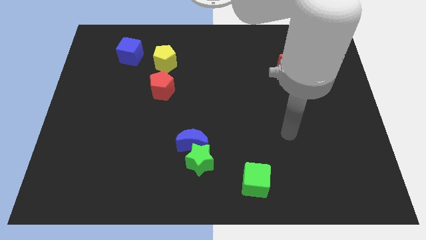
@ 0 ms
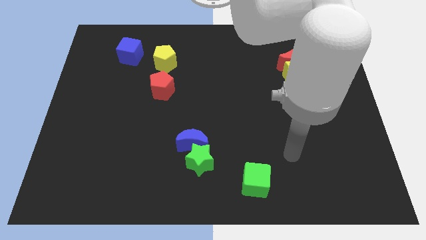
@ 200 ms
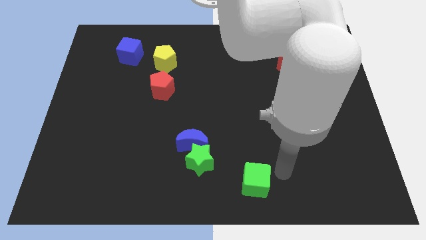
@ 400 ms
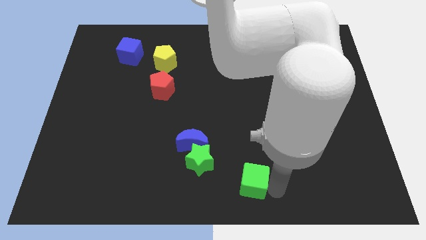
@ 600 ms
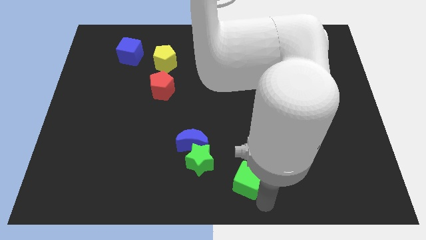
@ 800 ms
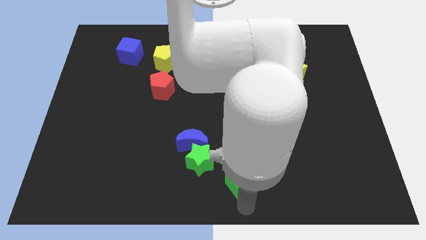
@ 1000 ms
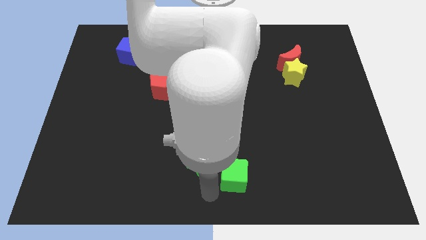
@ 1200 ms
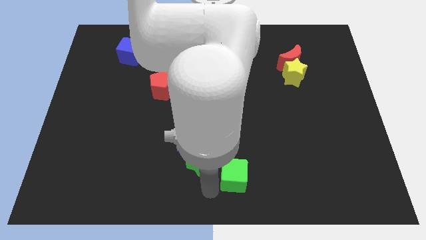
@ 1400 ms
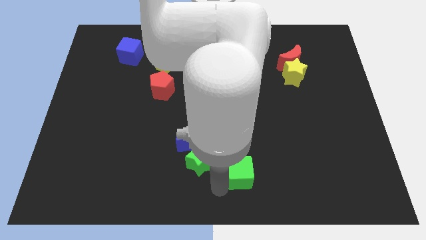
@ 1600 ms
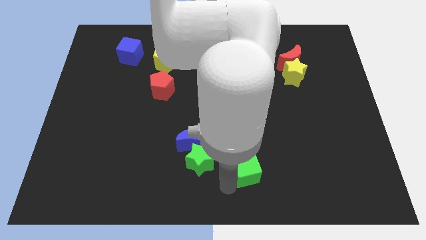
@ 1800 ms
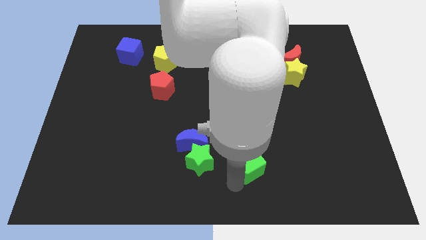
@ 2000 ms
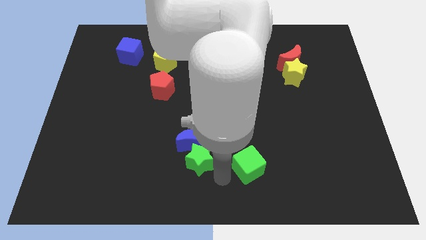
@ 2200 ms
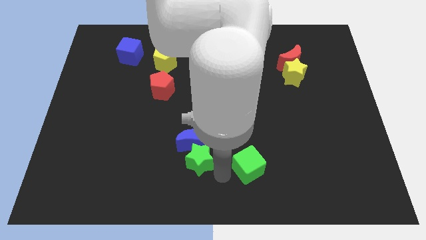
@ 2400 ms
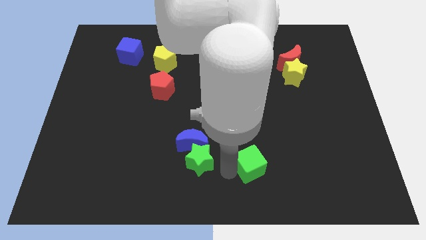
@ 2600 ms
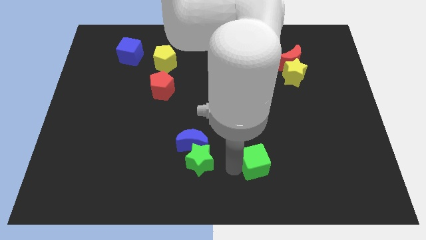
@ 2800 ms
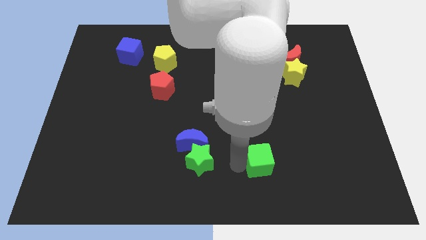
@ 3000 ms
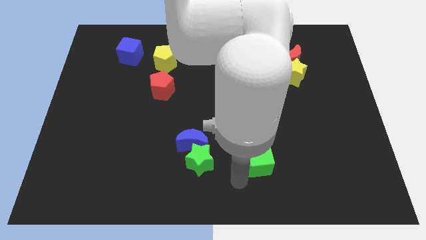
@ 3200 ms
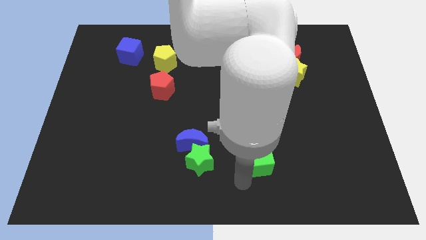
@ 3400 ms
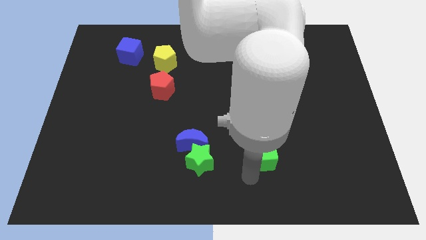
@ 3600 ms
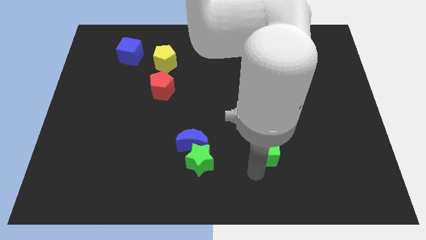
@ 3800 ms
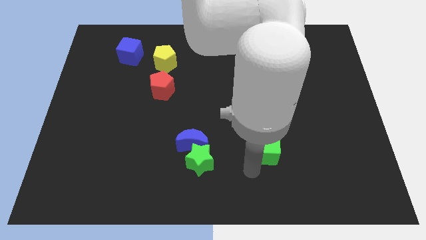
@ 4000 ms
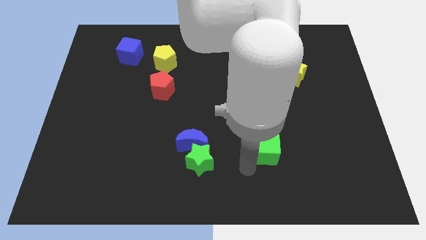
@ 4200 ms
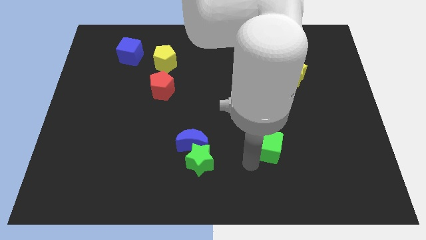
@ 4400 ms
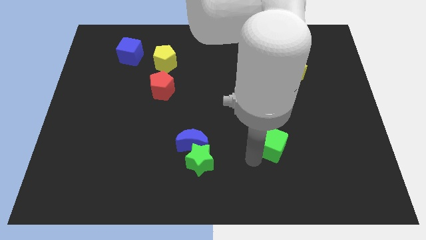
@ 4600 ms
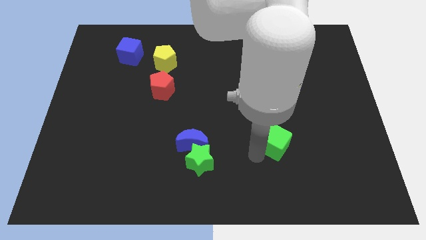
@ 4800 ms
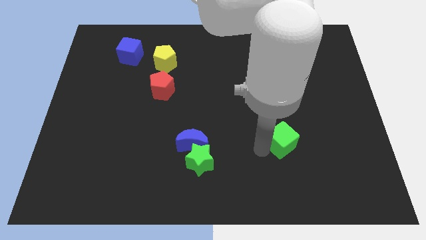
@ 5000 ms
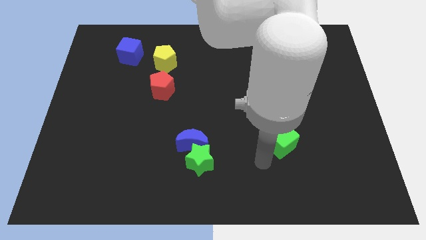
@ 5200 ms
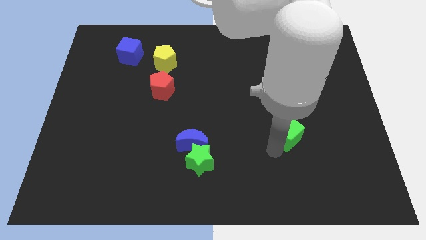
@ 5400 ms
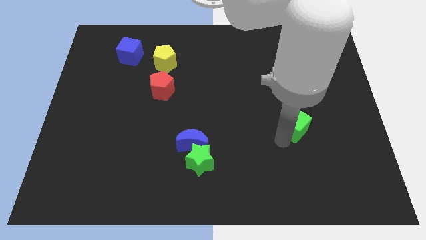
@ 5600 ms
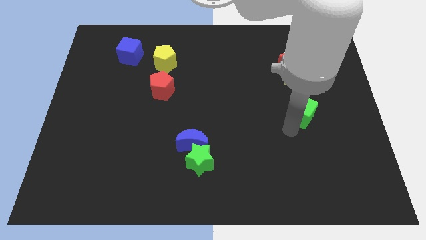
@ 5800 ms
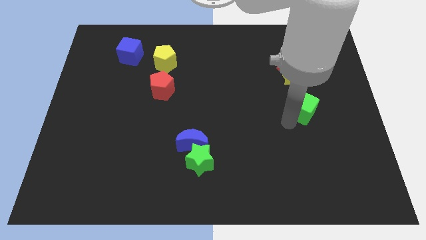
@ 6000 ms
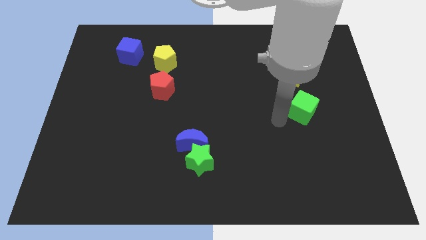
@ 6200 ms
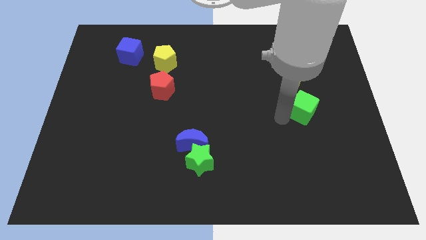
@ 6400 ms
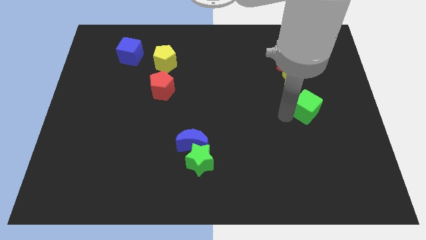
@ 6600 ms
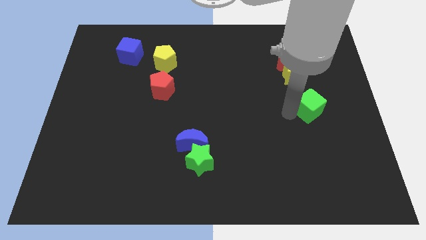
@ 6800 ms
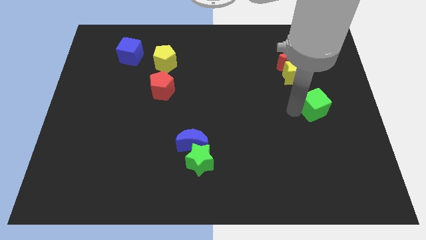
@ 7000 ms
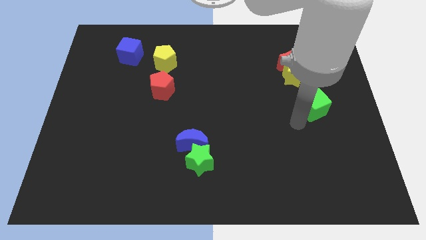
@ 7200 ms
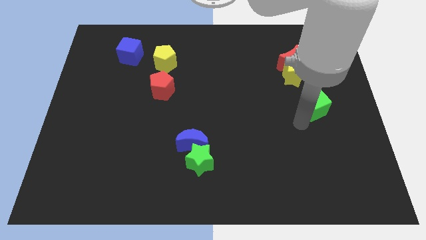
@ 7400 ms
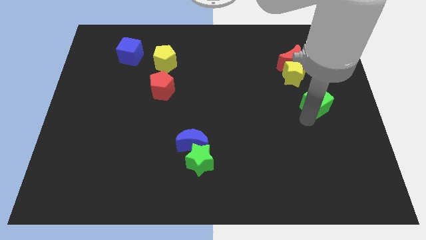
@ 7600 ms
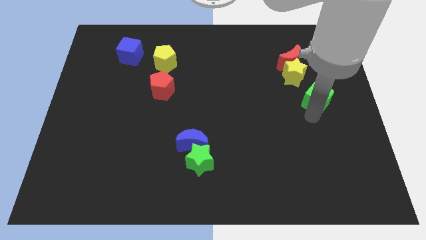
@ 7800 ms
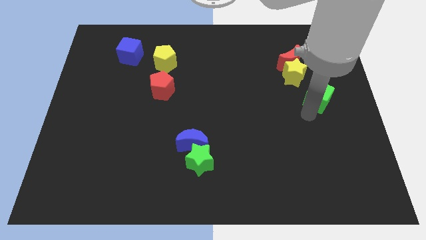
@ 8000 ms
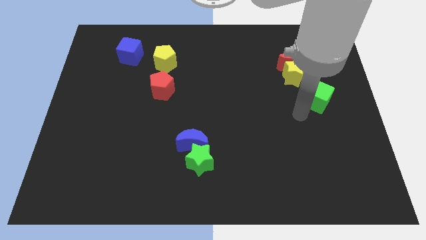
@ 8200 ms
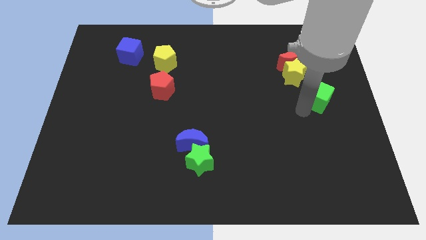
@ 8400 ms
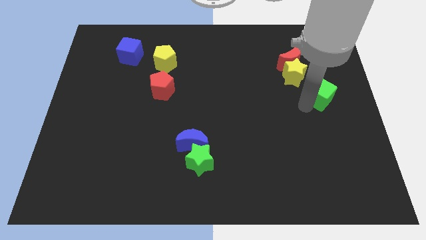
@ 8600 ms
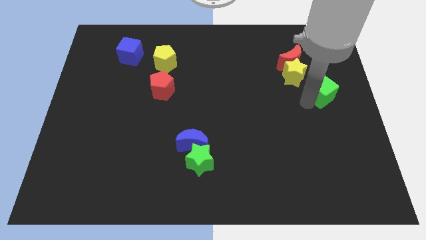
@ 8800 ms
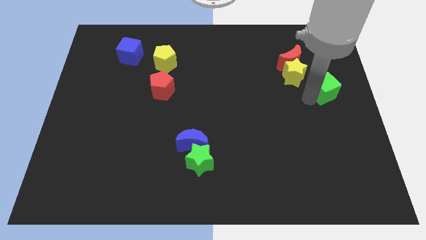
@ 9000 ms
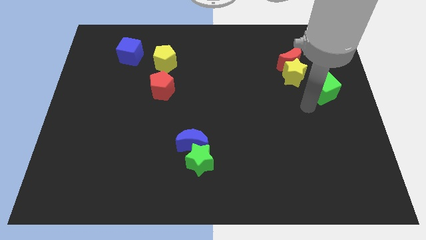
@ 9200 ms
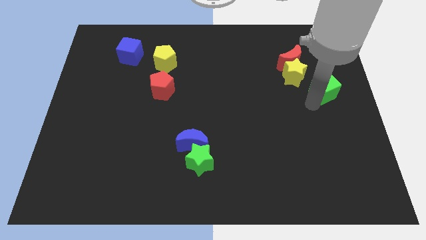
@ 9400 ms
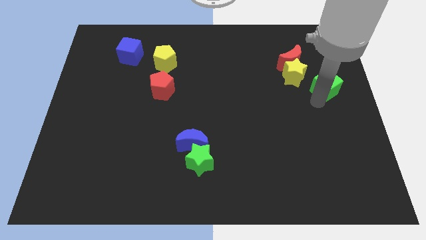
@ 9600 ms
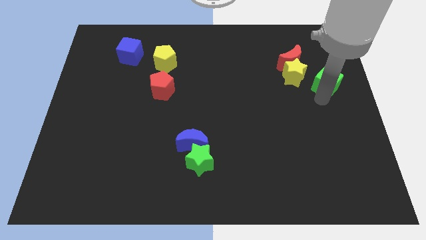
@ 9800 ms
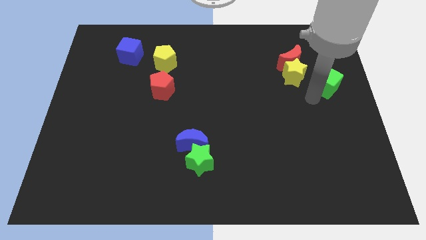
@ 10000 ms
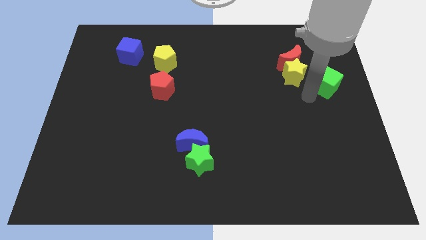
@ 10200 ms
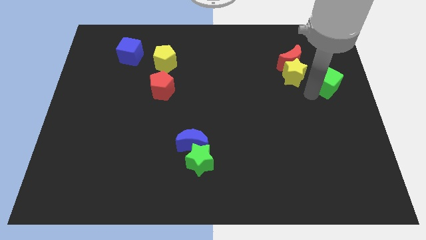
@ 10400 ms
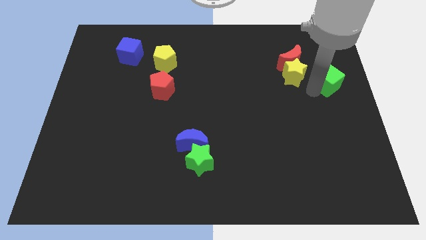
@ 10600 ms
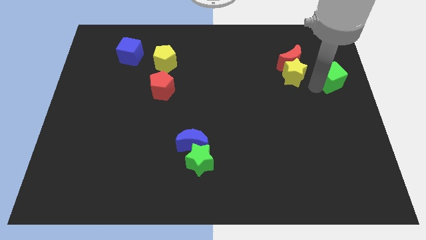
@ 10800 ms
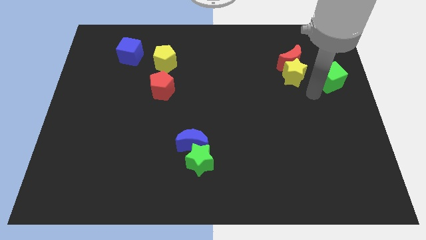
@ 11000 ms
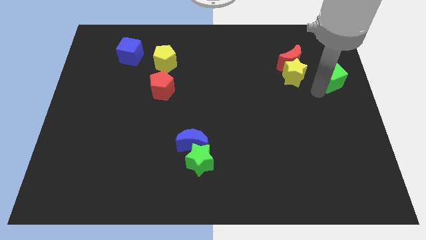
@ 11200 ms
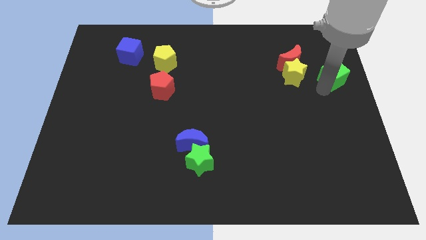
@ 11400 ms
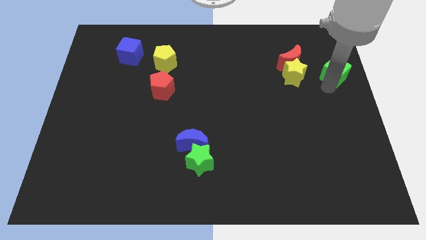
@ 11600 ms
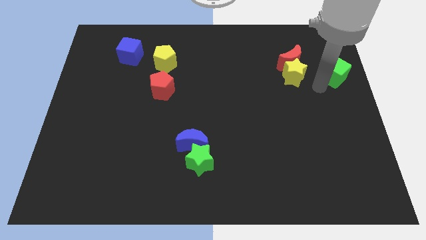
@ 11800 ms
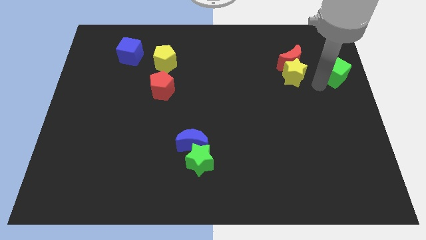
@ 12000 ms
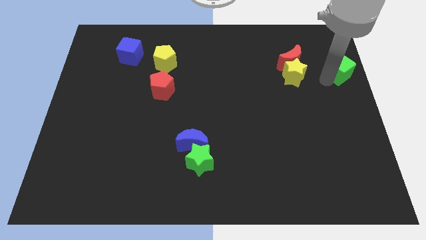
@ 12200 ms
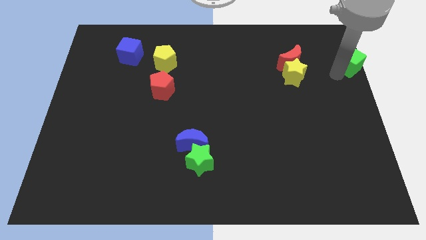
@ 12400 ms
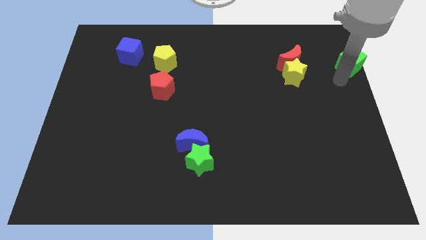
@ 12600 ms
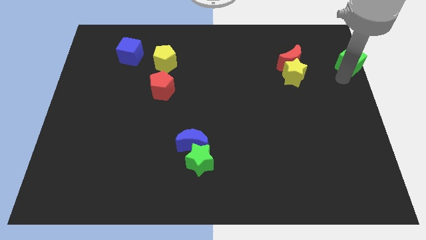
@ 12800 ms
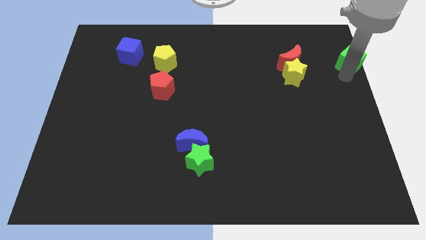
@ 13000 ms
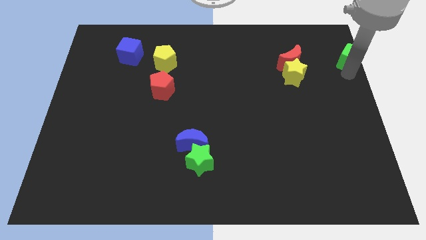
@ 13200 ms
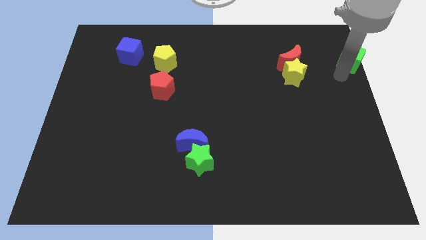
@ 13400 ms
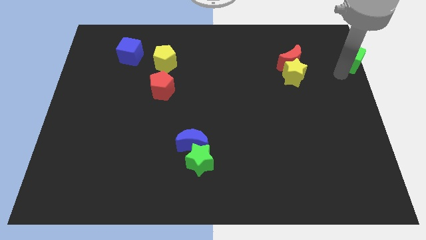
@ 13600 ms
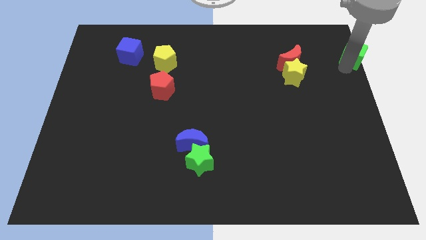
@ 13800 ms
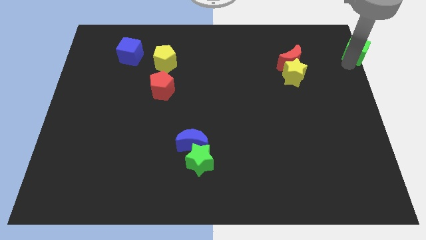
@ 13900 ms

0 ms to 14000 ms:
move the green cube to the upper right corner

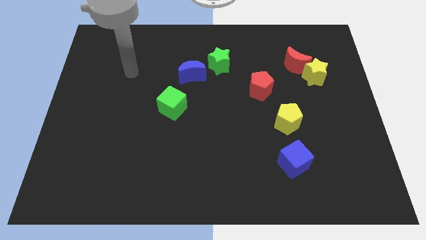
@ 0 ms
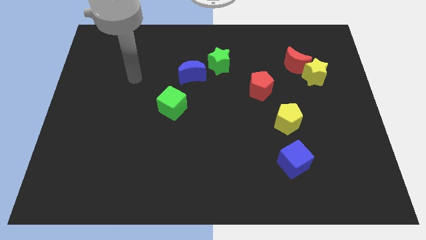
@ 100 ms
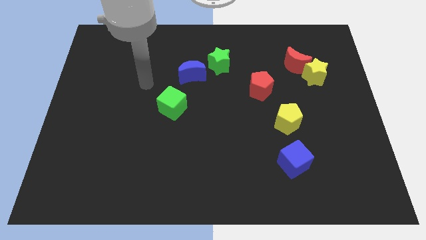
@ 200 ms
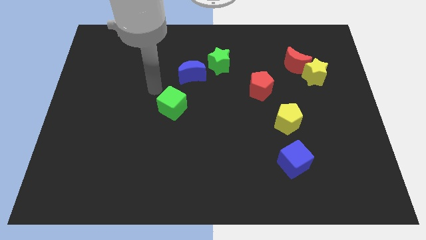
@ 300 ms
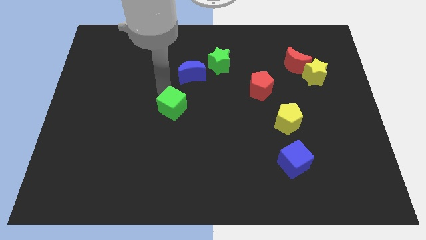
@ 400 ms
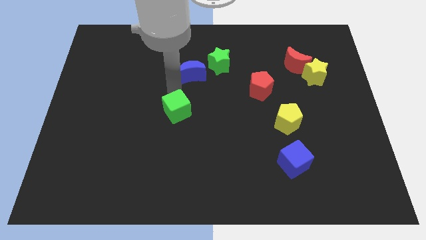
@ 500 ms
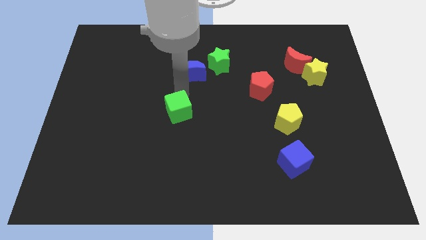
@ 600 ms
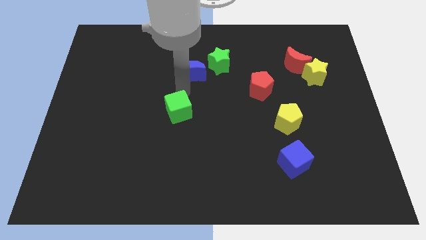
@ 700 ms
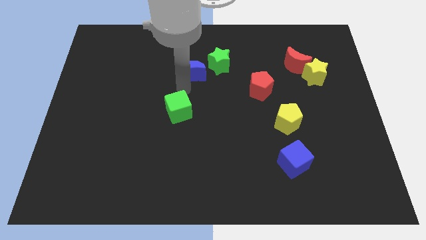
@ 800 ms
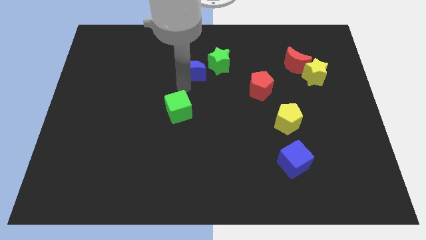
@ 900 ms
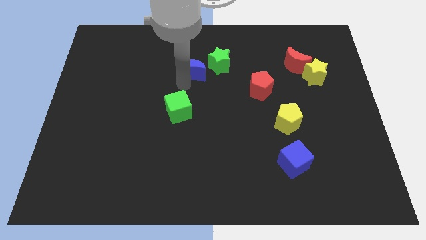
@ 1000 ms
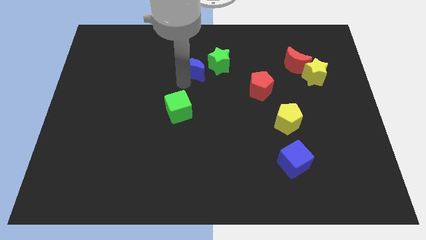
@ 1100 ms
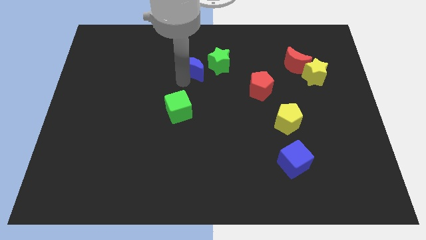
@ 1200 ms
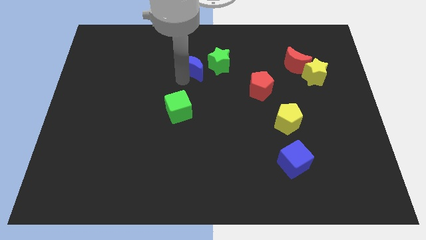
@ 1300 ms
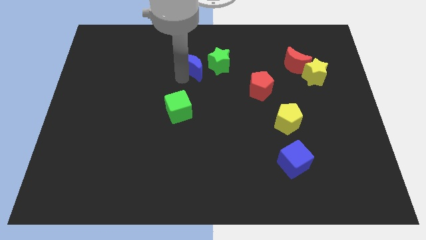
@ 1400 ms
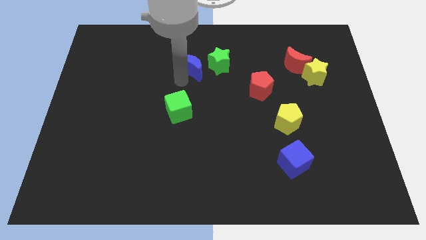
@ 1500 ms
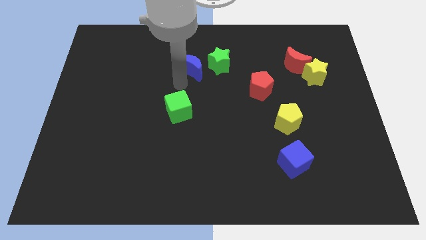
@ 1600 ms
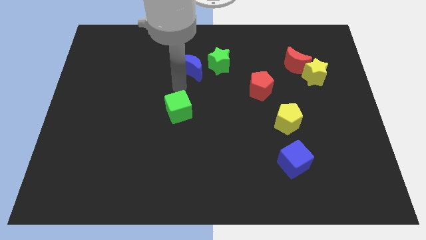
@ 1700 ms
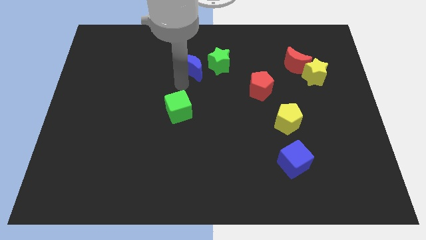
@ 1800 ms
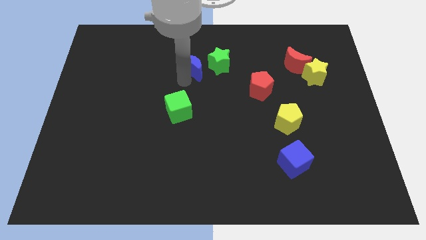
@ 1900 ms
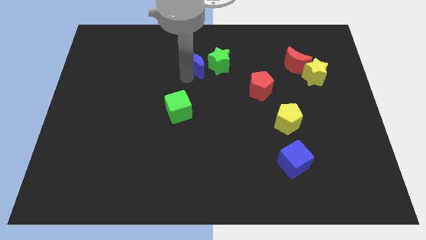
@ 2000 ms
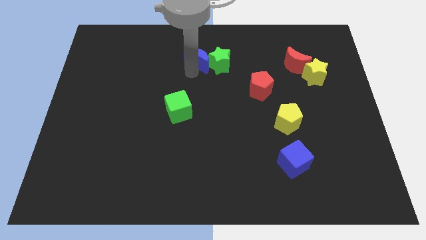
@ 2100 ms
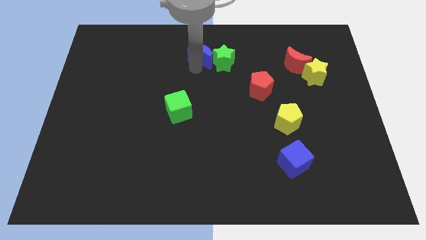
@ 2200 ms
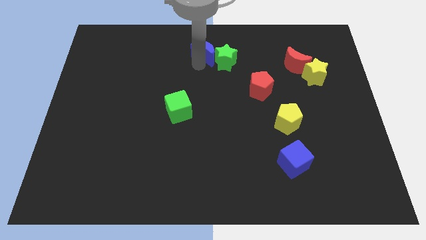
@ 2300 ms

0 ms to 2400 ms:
push the blue moon to the top
